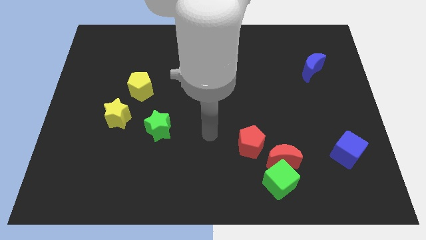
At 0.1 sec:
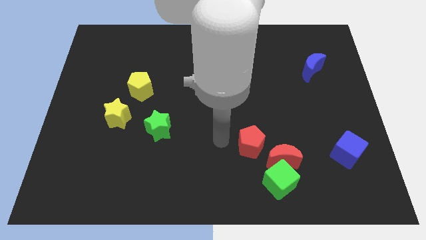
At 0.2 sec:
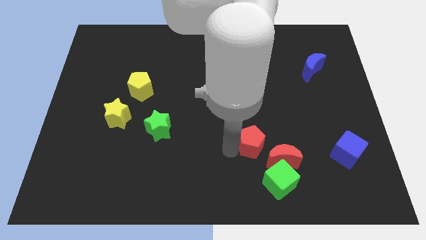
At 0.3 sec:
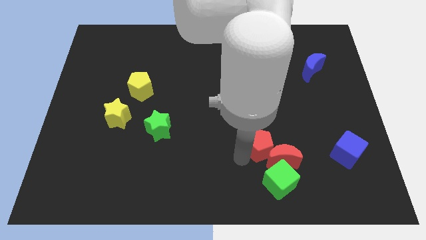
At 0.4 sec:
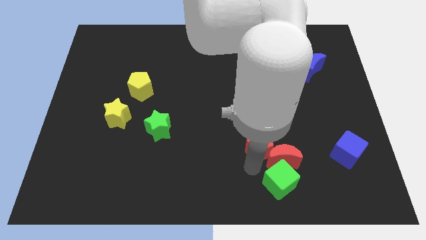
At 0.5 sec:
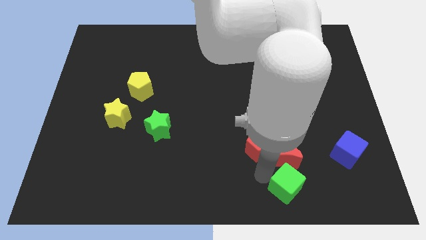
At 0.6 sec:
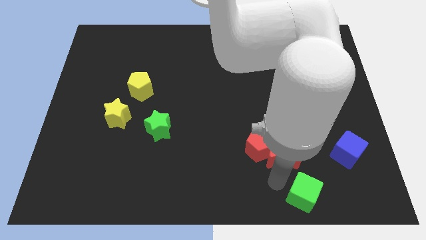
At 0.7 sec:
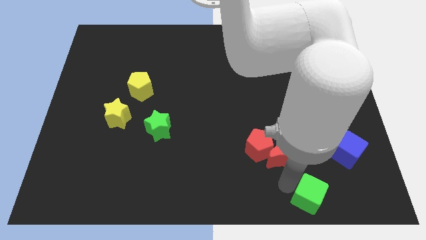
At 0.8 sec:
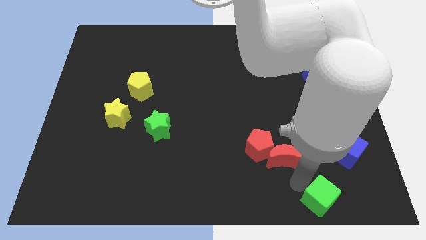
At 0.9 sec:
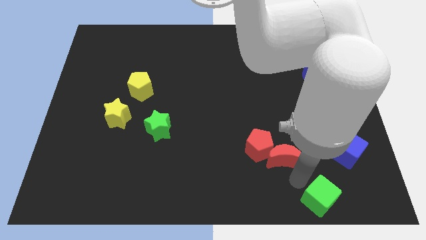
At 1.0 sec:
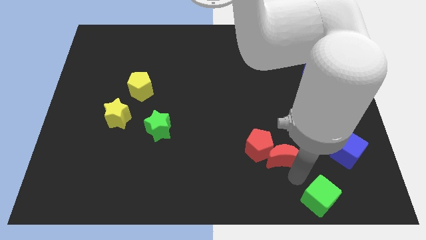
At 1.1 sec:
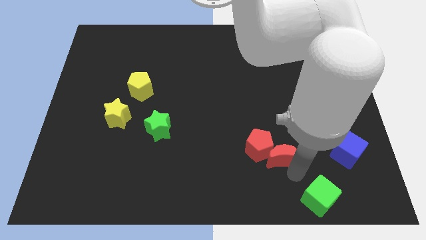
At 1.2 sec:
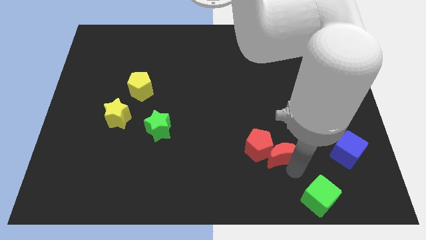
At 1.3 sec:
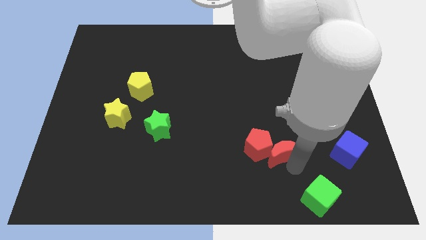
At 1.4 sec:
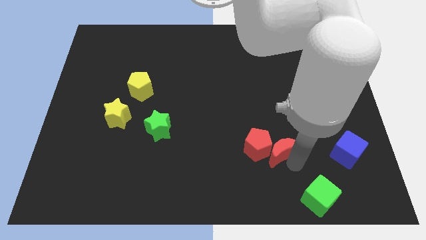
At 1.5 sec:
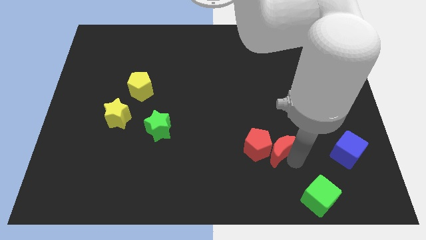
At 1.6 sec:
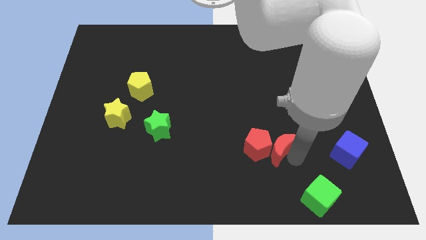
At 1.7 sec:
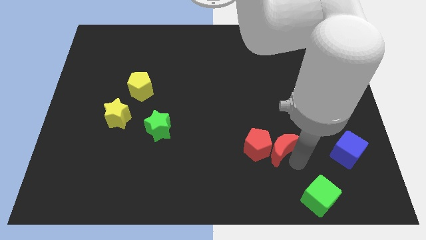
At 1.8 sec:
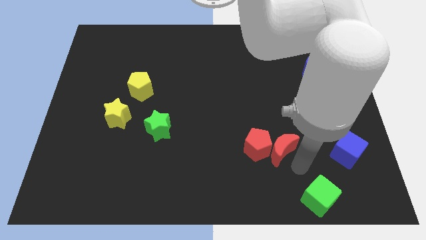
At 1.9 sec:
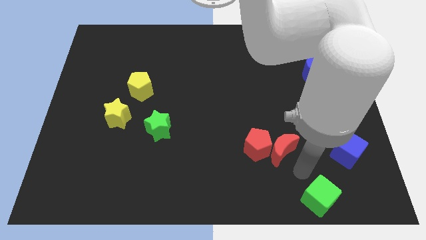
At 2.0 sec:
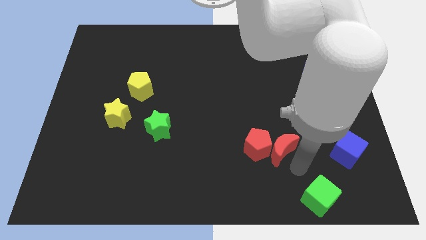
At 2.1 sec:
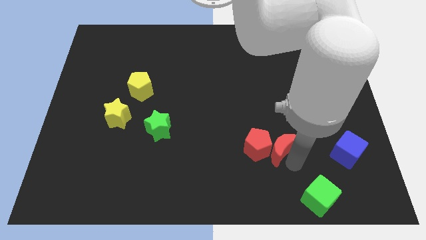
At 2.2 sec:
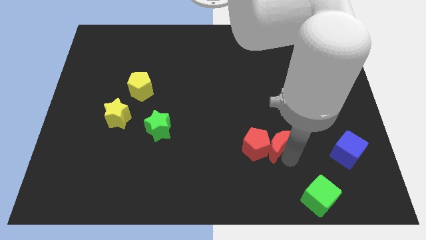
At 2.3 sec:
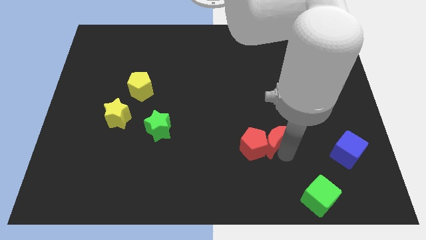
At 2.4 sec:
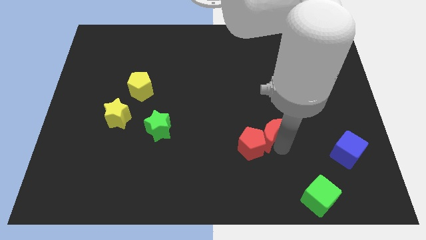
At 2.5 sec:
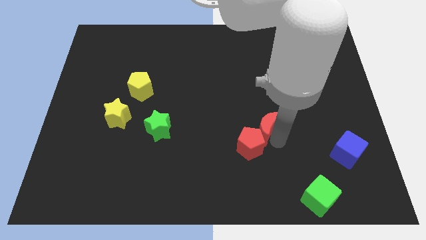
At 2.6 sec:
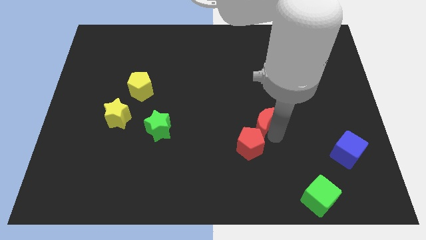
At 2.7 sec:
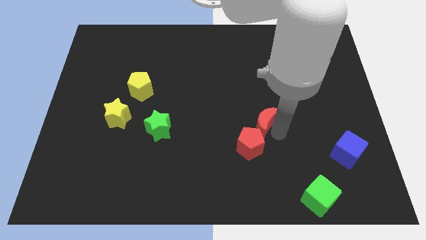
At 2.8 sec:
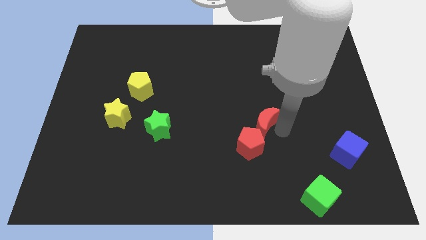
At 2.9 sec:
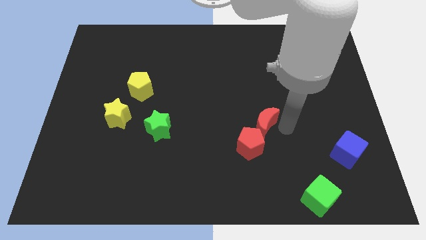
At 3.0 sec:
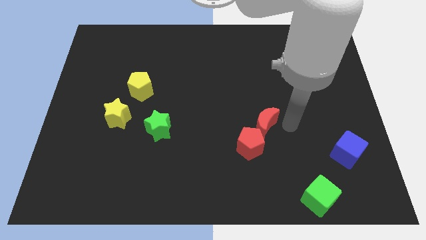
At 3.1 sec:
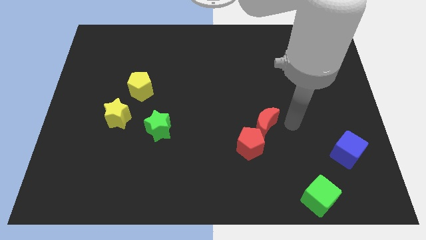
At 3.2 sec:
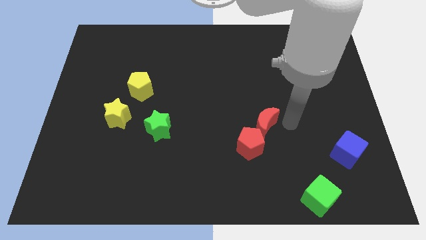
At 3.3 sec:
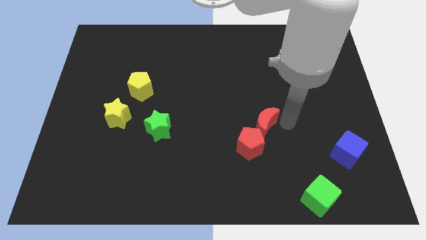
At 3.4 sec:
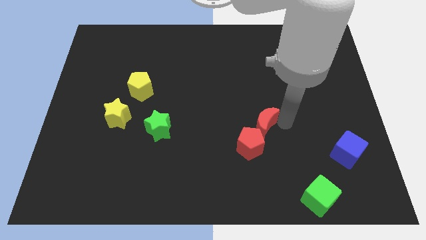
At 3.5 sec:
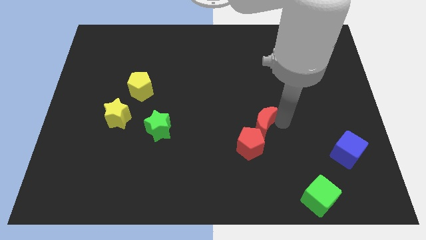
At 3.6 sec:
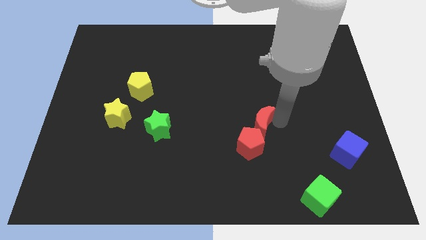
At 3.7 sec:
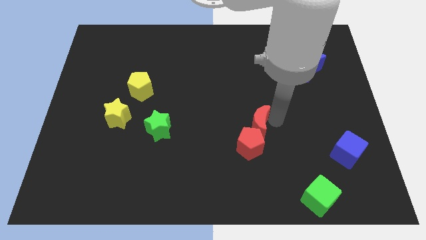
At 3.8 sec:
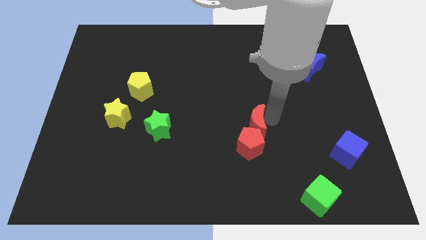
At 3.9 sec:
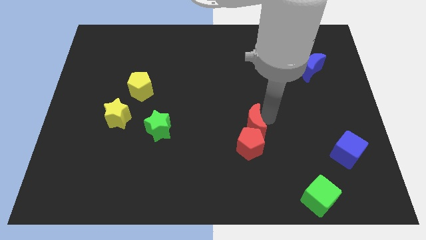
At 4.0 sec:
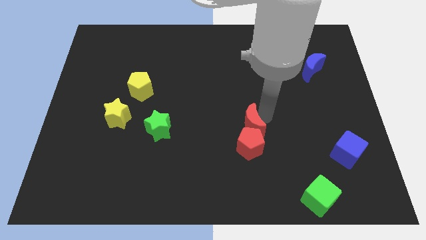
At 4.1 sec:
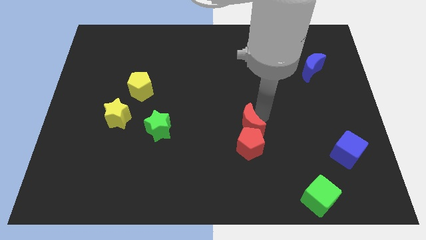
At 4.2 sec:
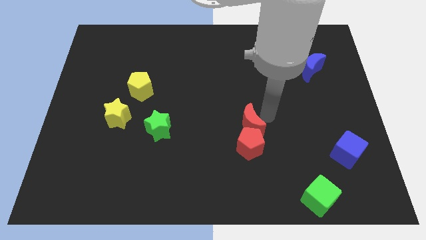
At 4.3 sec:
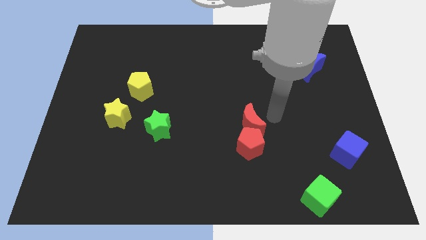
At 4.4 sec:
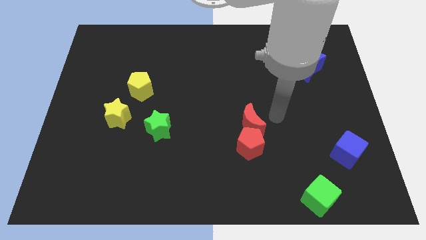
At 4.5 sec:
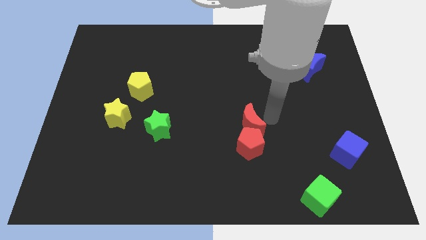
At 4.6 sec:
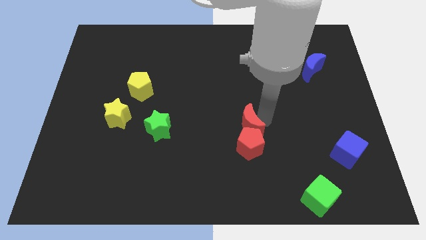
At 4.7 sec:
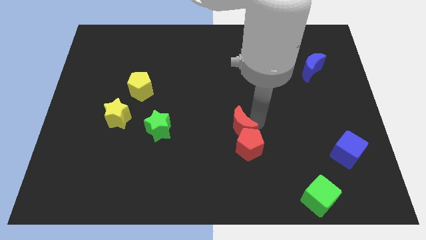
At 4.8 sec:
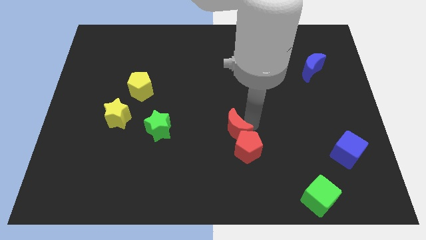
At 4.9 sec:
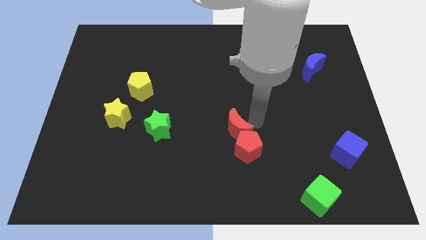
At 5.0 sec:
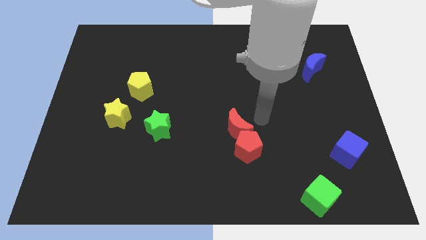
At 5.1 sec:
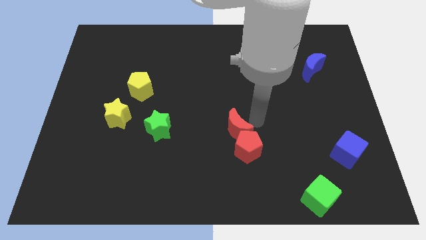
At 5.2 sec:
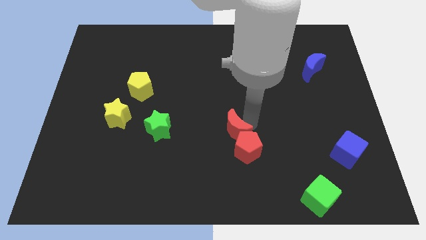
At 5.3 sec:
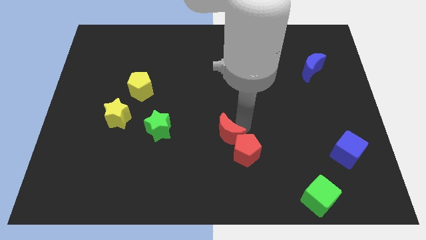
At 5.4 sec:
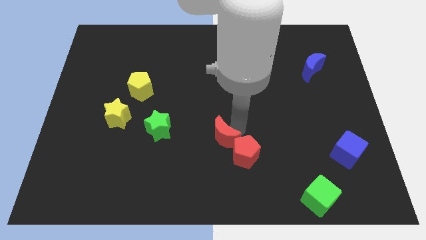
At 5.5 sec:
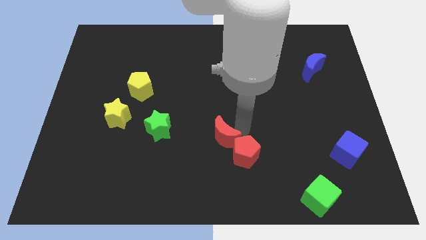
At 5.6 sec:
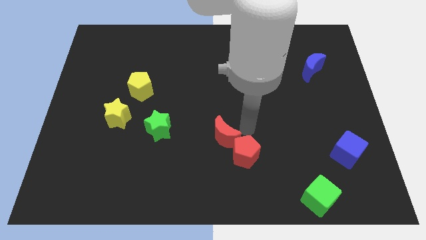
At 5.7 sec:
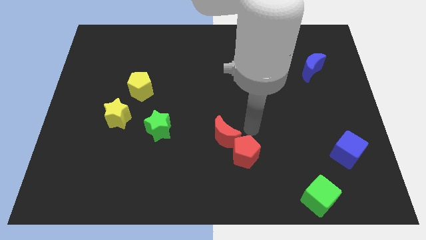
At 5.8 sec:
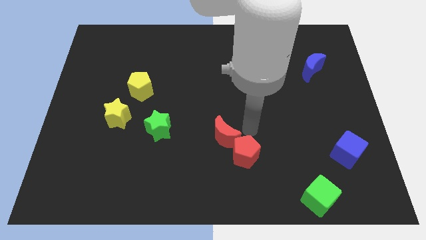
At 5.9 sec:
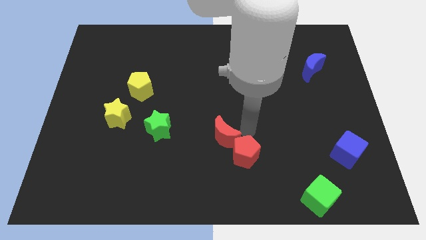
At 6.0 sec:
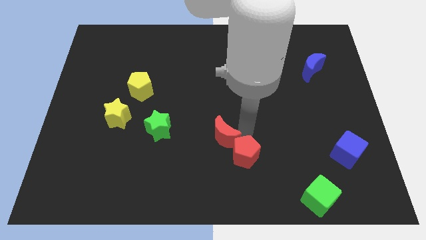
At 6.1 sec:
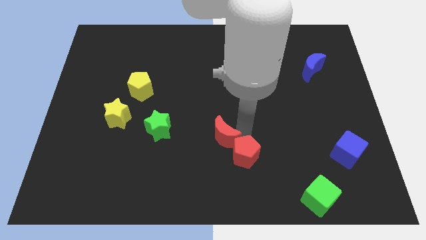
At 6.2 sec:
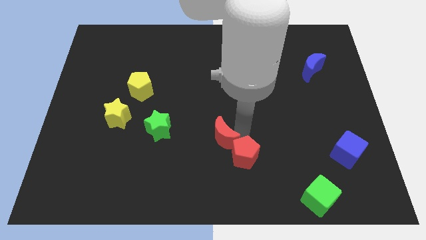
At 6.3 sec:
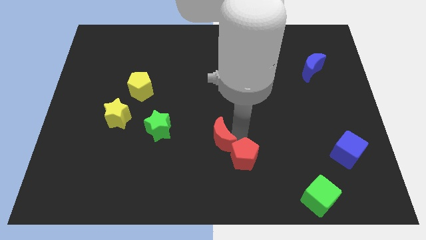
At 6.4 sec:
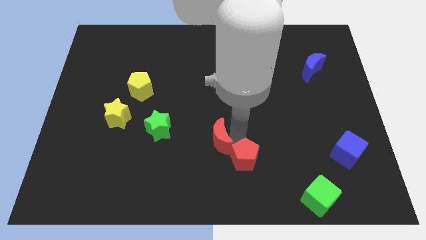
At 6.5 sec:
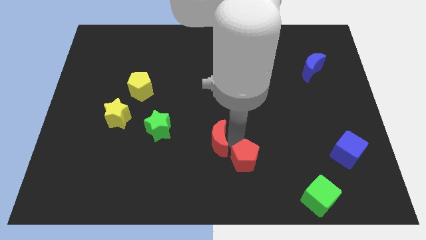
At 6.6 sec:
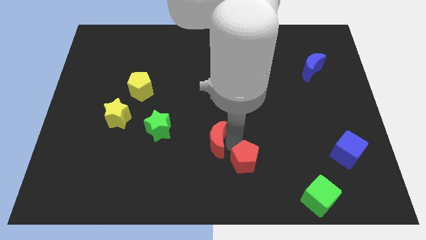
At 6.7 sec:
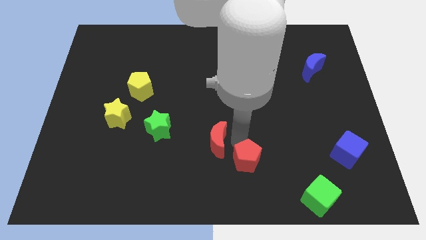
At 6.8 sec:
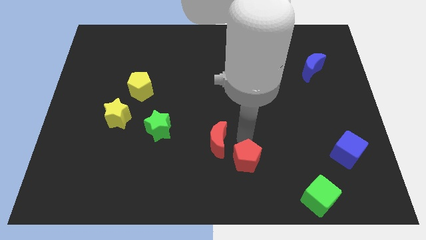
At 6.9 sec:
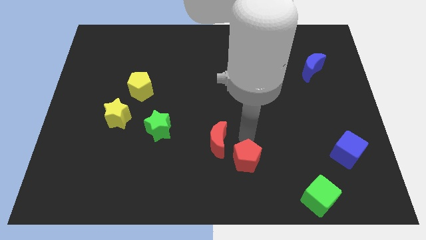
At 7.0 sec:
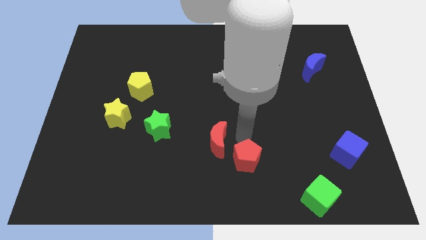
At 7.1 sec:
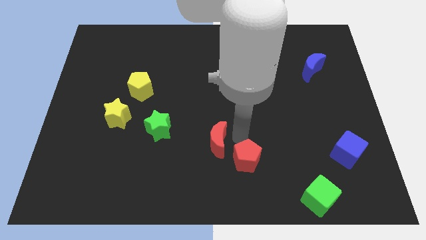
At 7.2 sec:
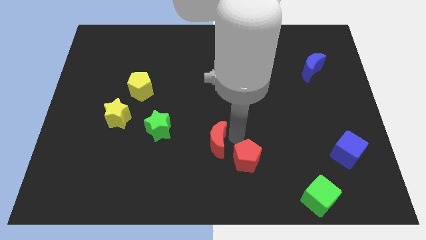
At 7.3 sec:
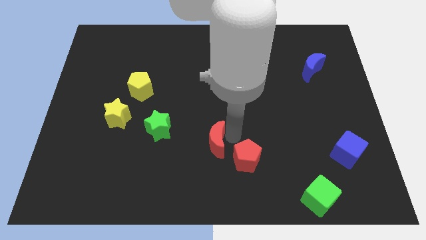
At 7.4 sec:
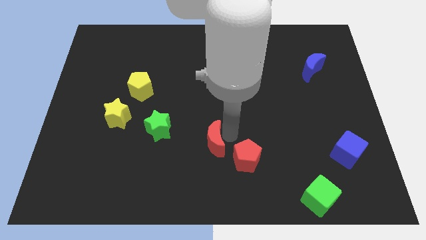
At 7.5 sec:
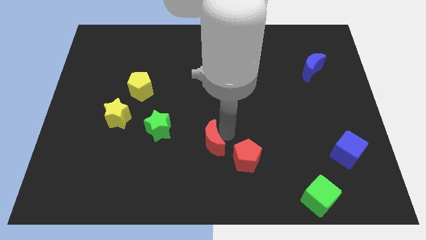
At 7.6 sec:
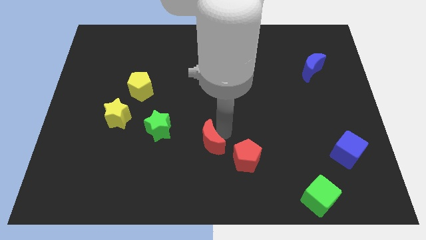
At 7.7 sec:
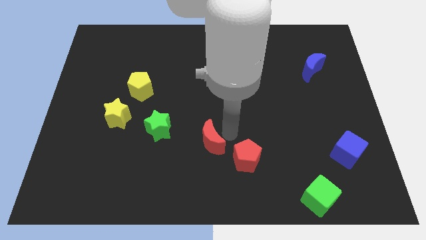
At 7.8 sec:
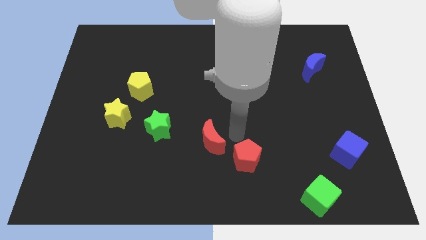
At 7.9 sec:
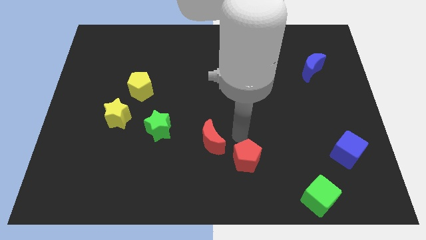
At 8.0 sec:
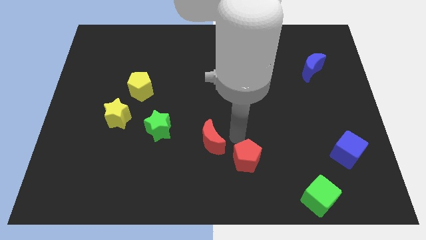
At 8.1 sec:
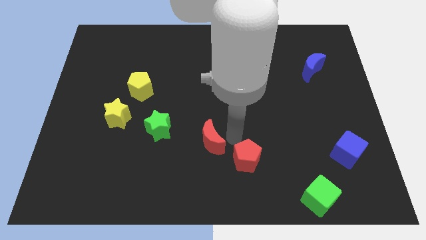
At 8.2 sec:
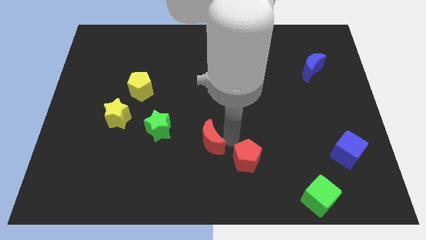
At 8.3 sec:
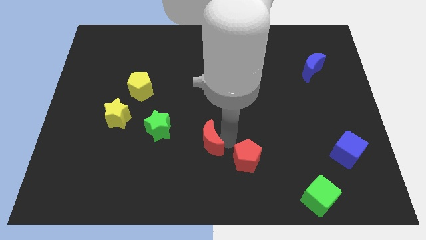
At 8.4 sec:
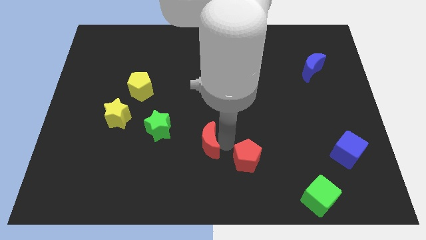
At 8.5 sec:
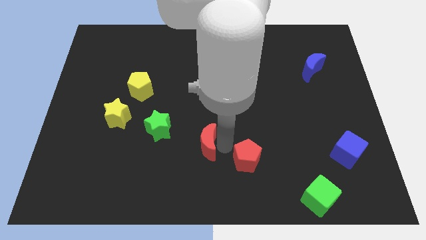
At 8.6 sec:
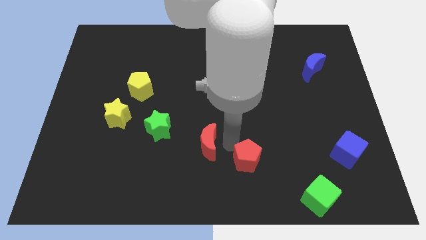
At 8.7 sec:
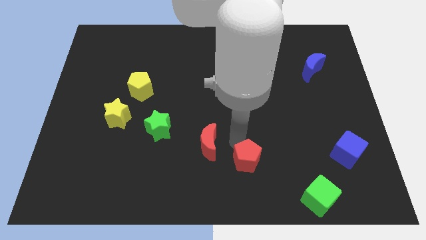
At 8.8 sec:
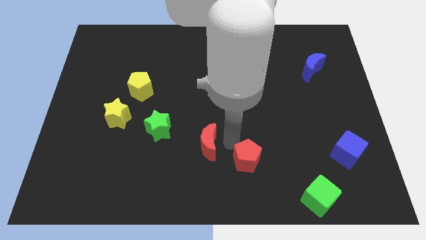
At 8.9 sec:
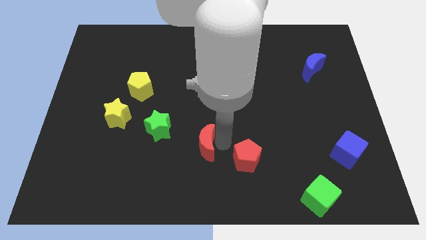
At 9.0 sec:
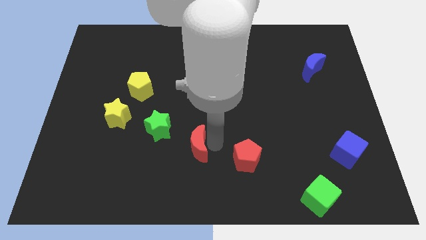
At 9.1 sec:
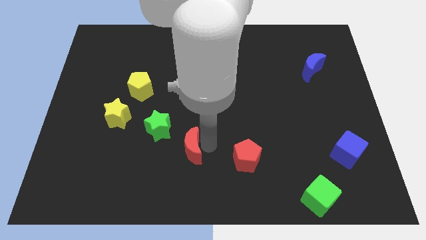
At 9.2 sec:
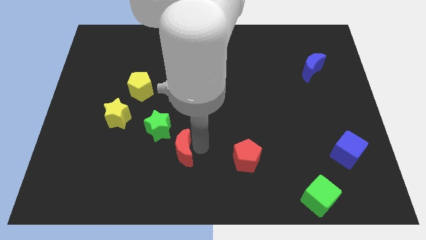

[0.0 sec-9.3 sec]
move the red moon to the left
